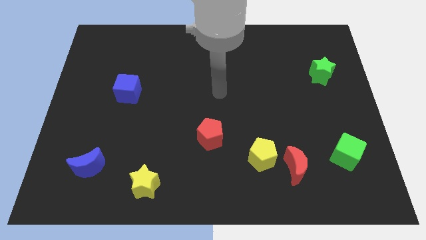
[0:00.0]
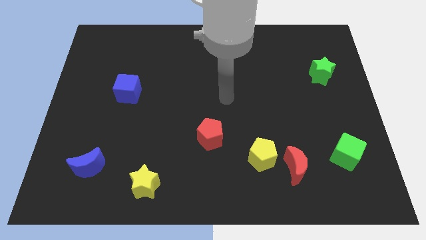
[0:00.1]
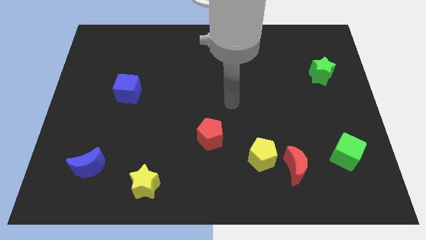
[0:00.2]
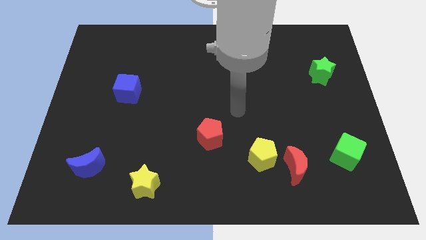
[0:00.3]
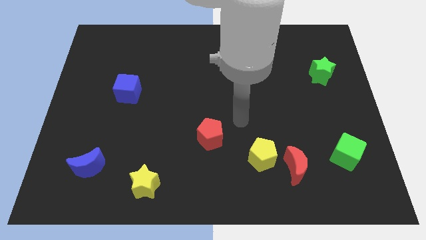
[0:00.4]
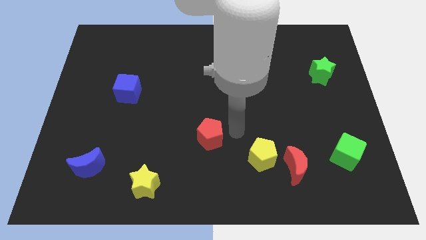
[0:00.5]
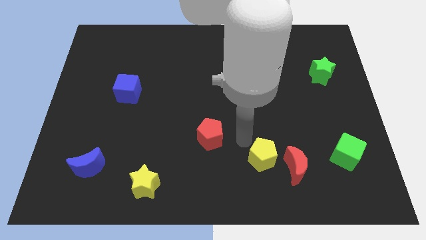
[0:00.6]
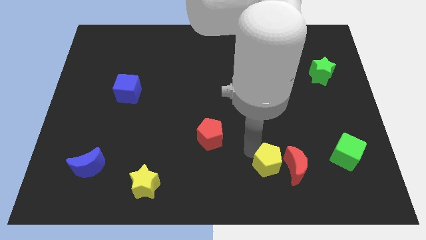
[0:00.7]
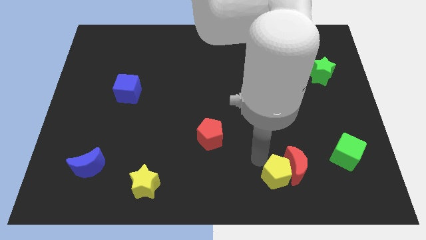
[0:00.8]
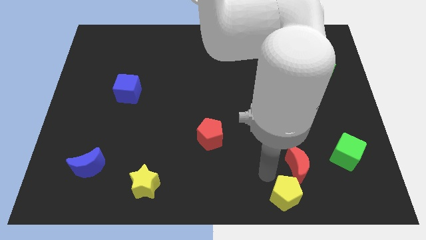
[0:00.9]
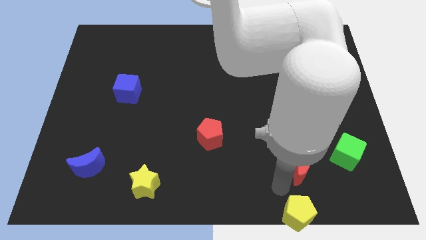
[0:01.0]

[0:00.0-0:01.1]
separate the red moon from the yellow pentagon

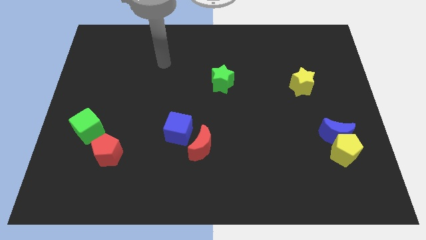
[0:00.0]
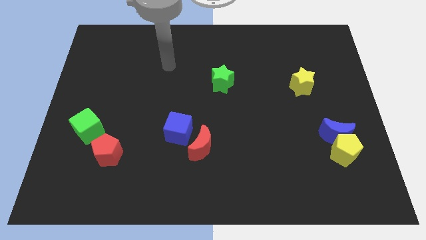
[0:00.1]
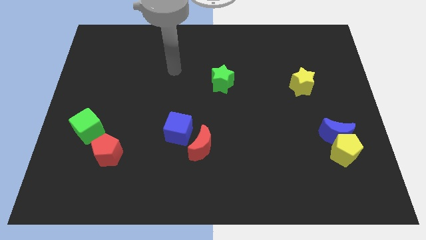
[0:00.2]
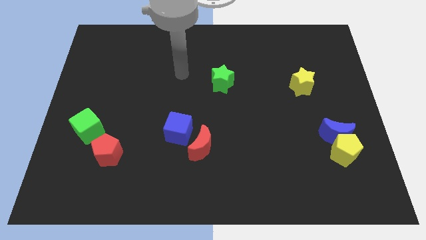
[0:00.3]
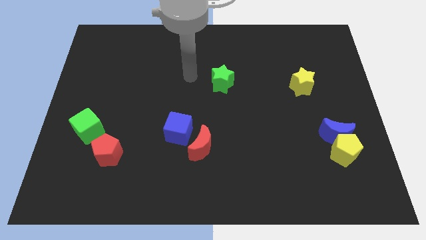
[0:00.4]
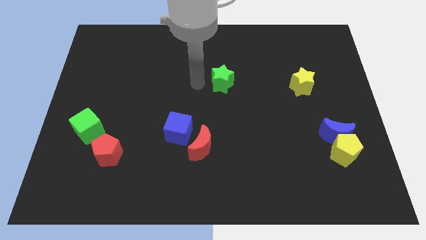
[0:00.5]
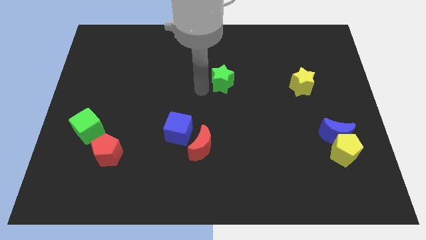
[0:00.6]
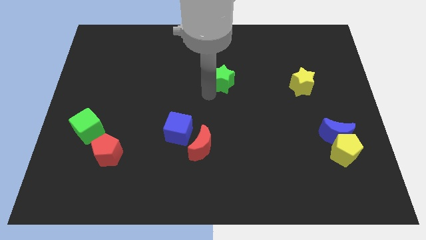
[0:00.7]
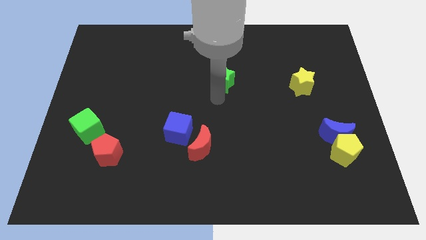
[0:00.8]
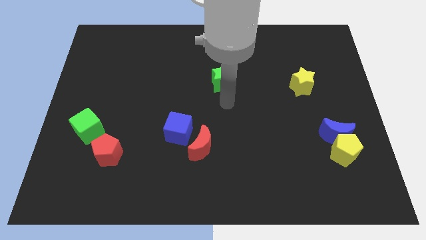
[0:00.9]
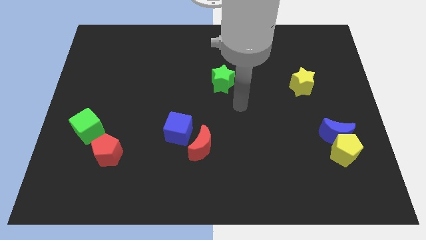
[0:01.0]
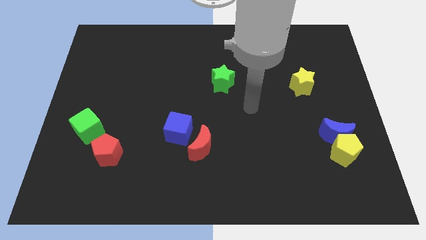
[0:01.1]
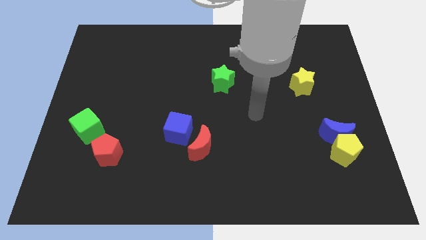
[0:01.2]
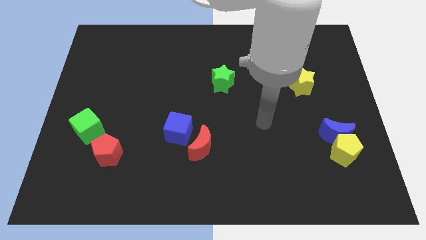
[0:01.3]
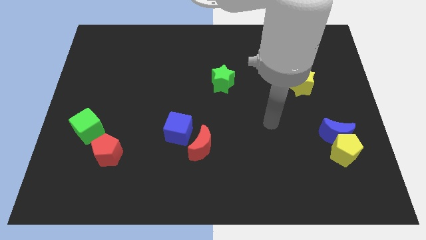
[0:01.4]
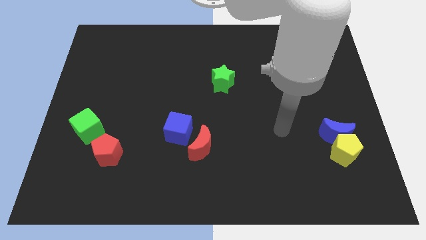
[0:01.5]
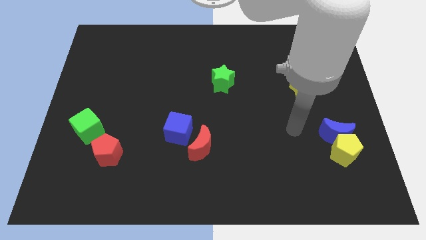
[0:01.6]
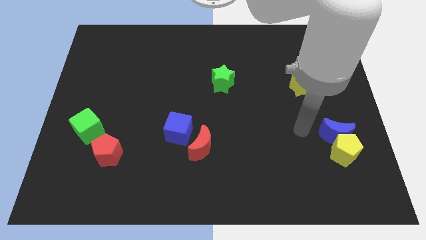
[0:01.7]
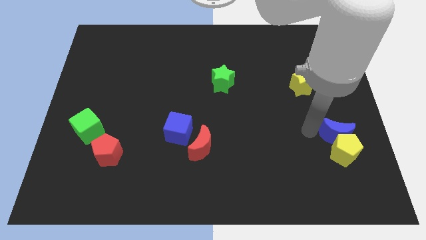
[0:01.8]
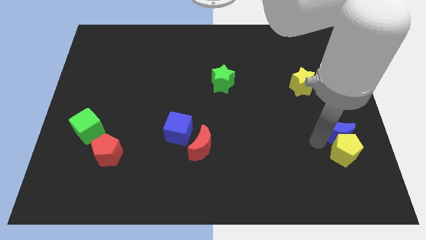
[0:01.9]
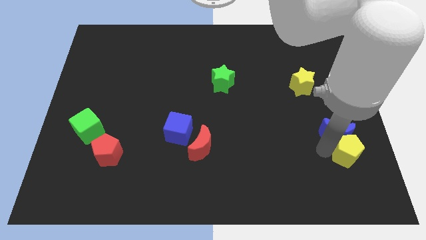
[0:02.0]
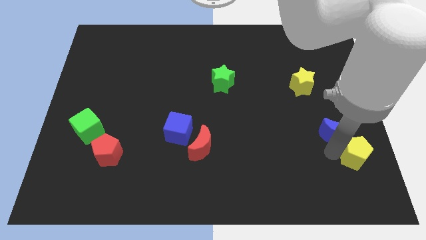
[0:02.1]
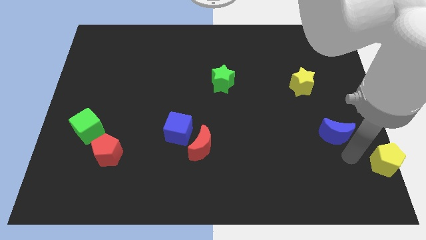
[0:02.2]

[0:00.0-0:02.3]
separate the blue moon from the yellow pentagon

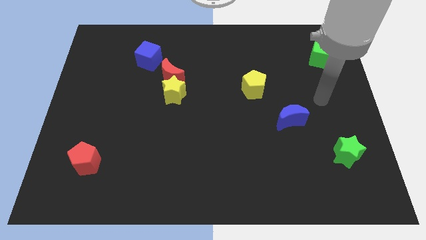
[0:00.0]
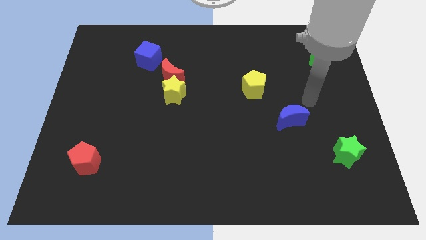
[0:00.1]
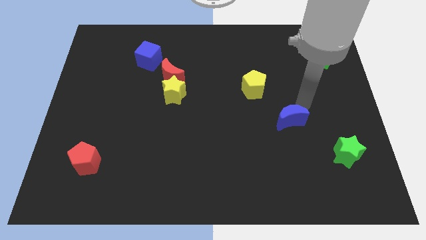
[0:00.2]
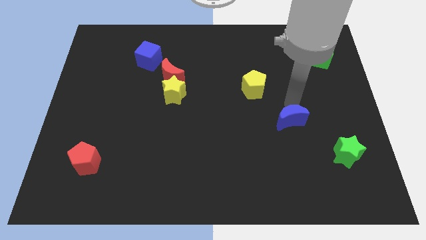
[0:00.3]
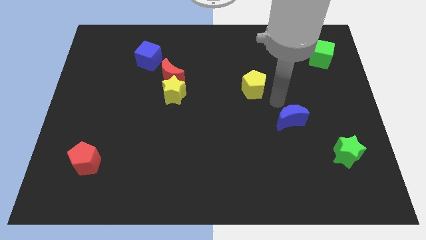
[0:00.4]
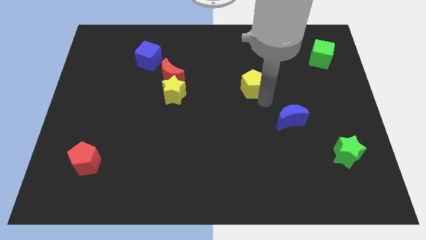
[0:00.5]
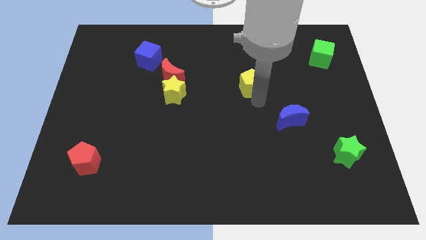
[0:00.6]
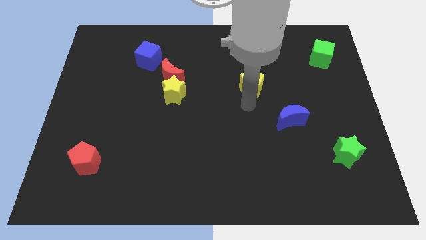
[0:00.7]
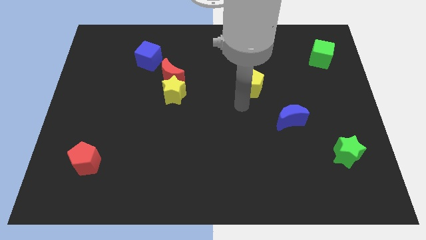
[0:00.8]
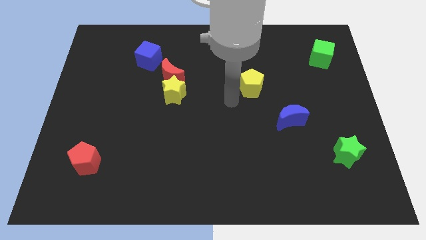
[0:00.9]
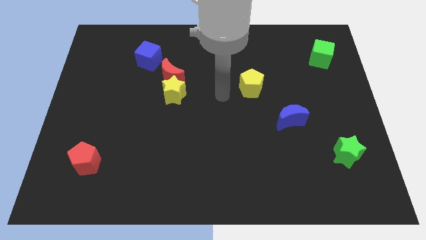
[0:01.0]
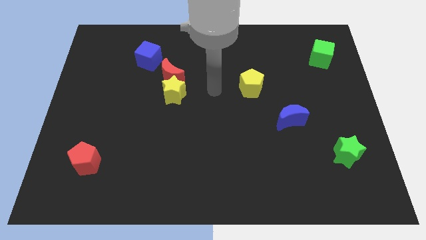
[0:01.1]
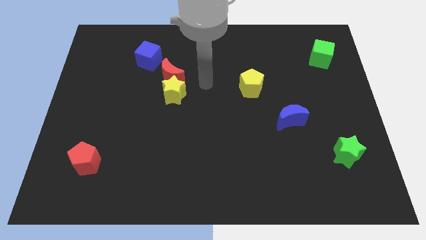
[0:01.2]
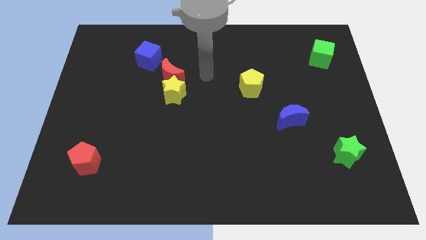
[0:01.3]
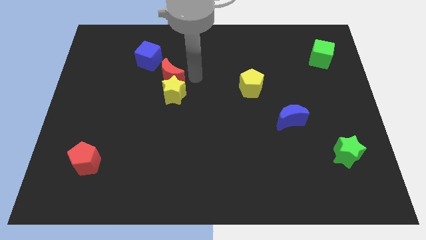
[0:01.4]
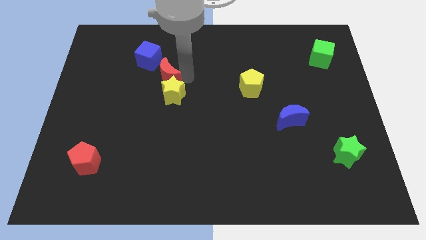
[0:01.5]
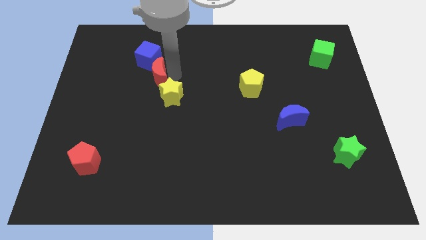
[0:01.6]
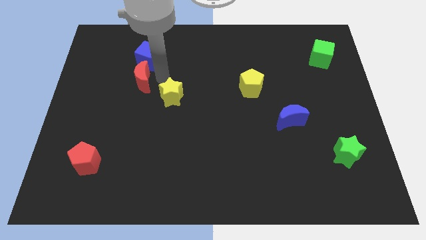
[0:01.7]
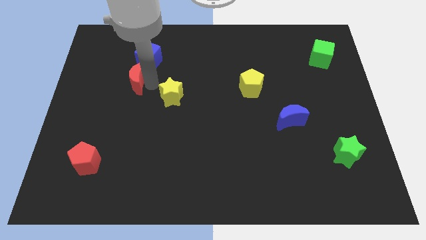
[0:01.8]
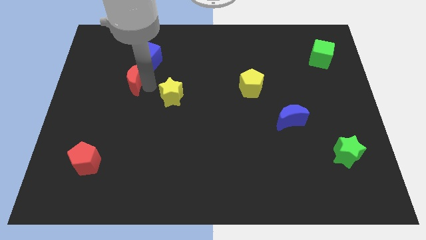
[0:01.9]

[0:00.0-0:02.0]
pull the yellow star apart from the red moon

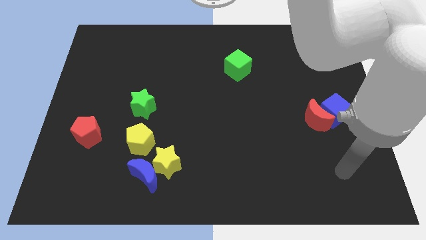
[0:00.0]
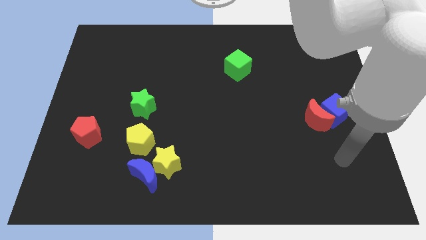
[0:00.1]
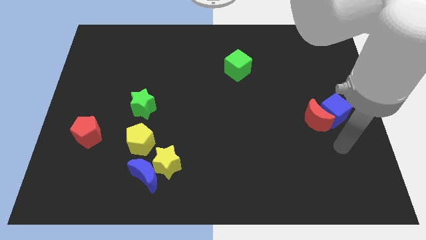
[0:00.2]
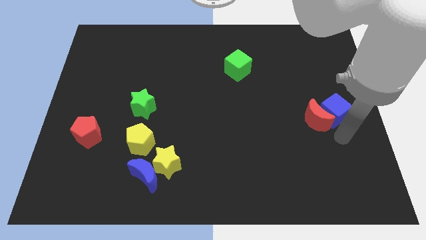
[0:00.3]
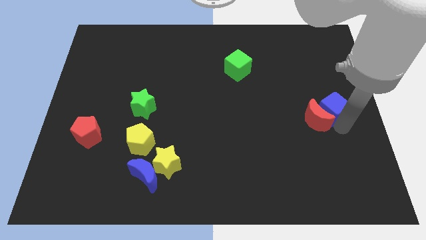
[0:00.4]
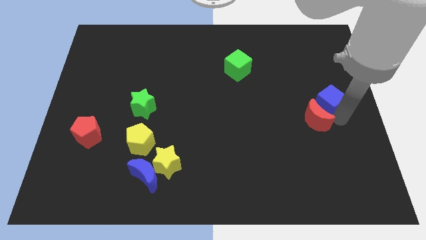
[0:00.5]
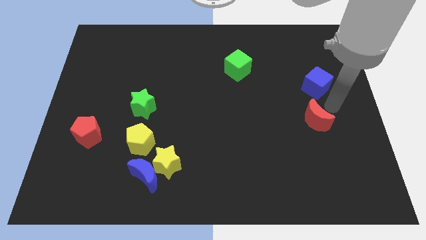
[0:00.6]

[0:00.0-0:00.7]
move the red moon away from the blue cube

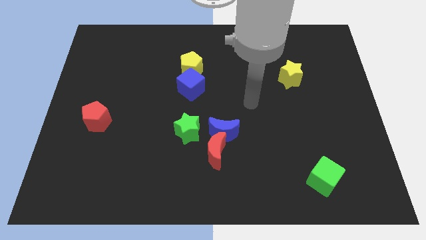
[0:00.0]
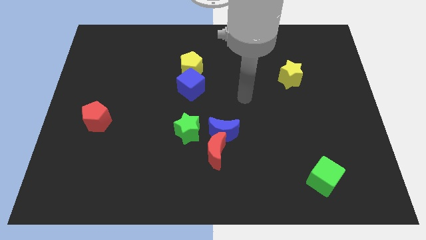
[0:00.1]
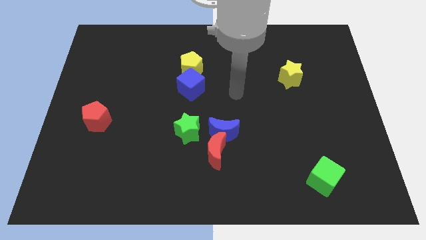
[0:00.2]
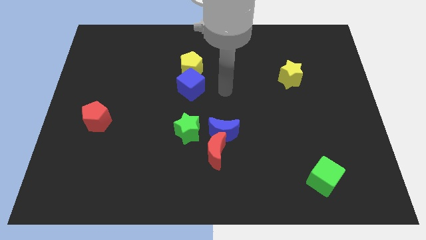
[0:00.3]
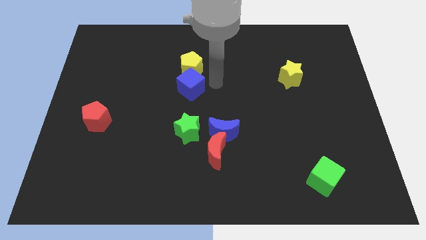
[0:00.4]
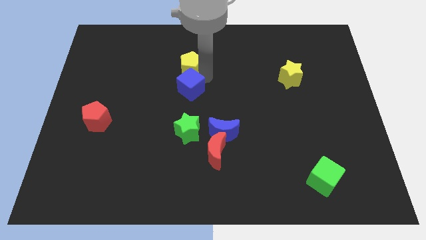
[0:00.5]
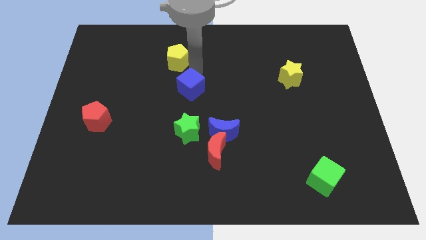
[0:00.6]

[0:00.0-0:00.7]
move the blue cube away from the yellow pentagon

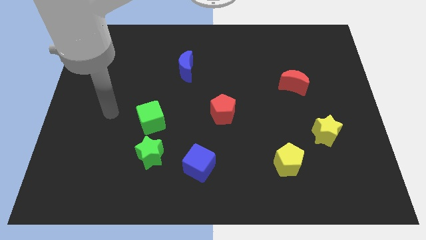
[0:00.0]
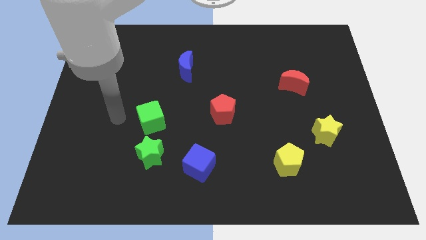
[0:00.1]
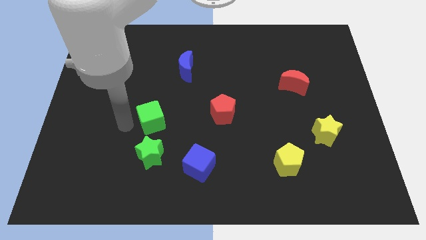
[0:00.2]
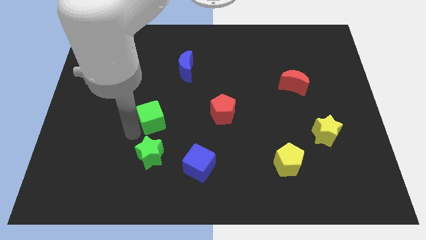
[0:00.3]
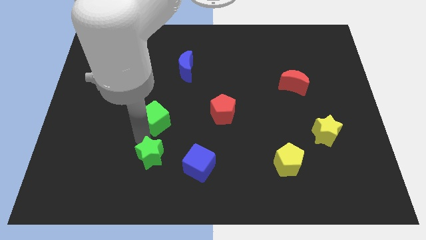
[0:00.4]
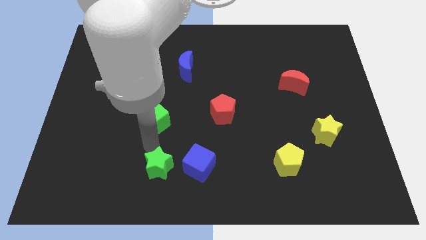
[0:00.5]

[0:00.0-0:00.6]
separate the green cube from the green star

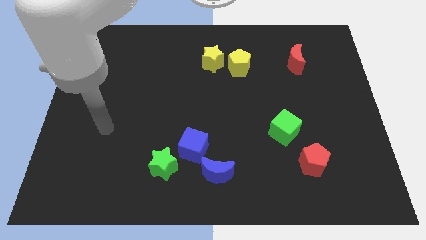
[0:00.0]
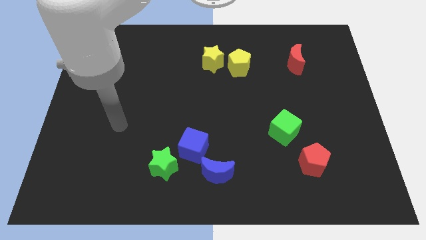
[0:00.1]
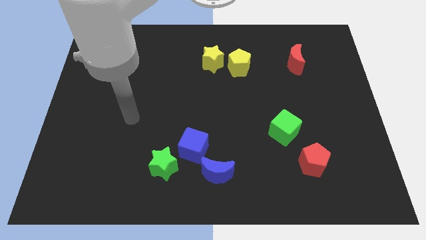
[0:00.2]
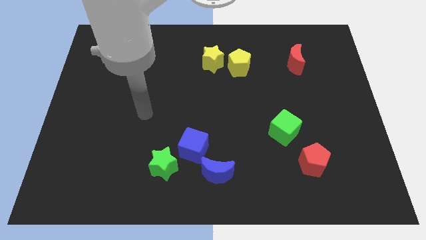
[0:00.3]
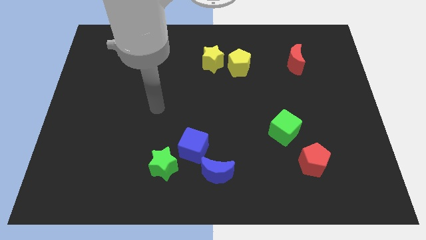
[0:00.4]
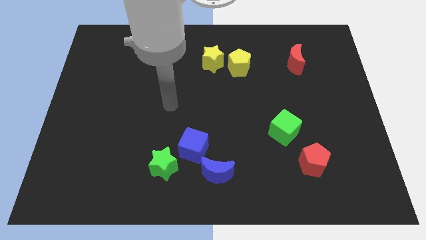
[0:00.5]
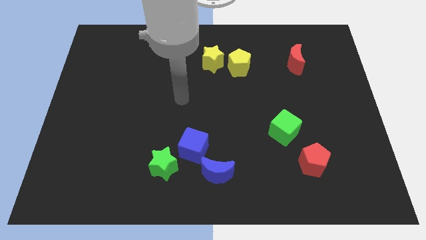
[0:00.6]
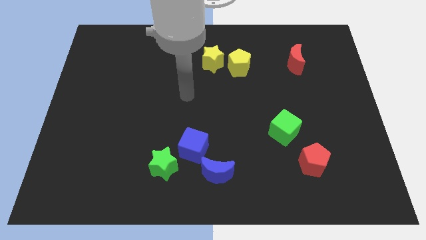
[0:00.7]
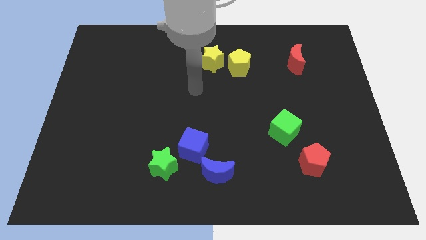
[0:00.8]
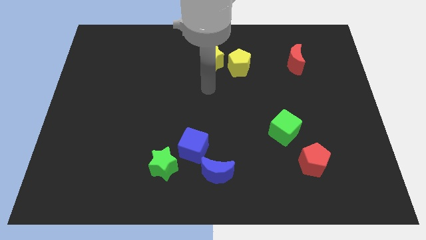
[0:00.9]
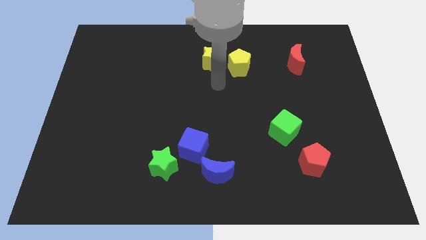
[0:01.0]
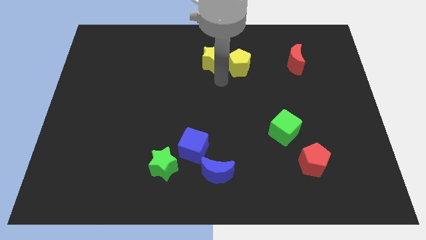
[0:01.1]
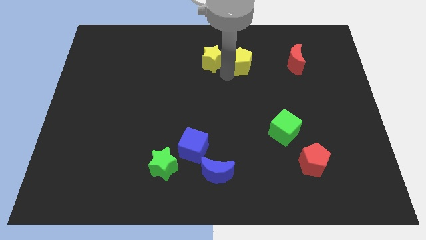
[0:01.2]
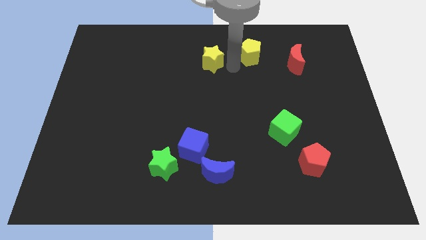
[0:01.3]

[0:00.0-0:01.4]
pull the yellow star apart from the yellow pentagon

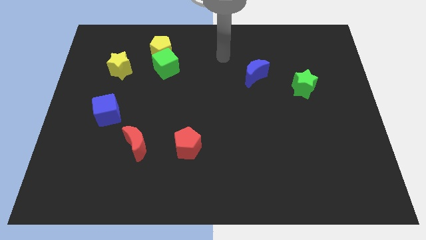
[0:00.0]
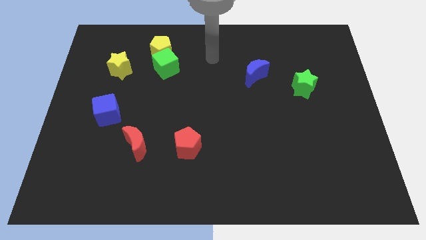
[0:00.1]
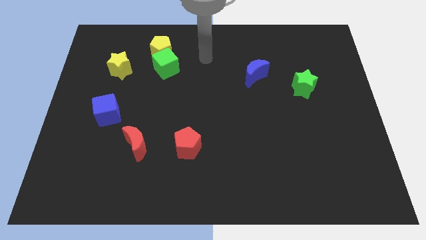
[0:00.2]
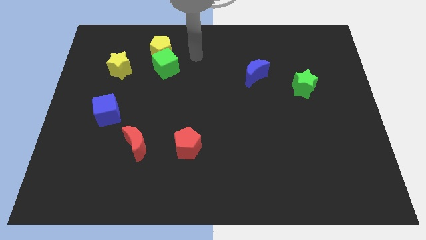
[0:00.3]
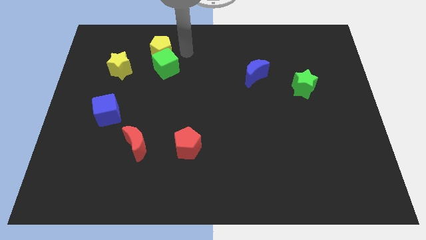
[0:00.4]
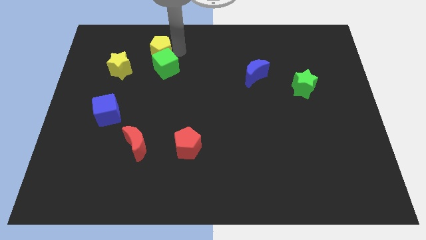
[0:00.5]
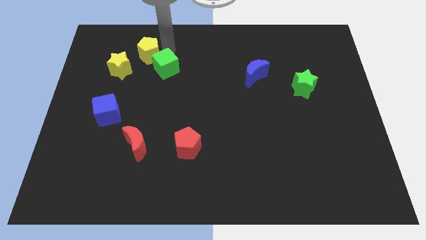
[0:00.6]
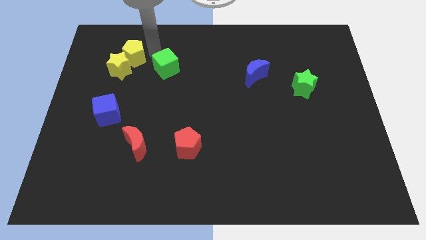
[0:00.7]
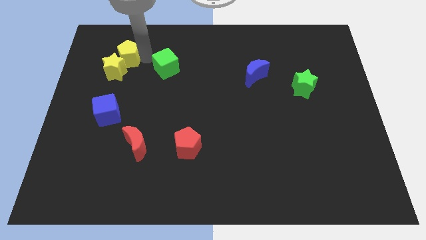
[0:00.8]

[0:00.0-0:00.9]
move the green cube away from the yellow pentagon
